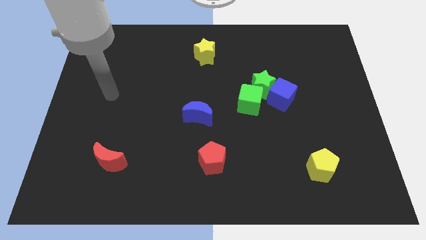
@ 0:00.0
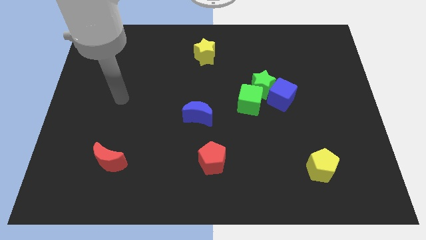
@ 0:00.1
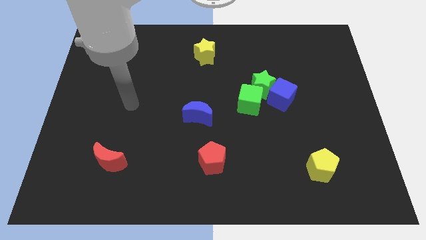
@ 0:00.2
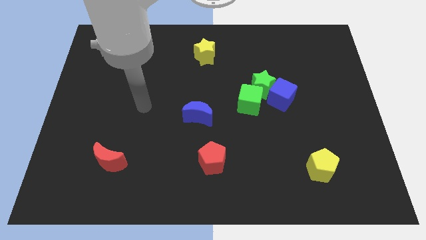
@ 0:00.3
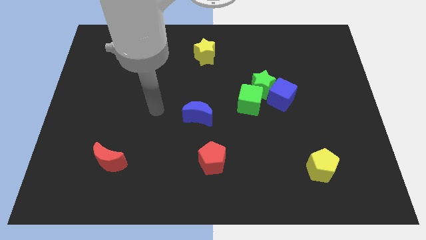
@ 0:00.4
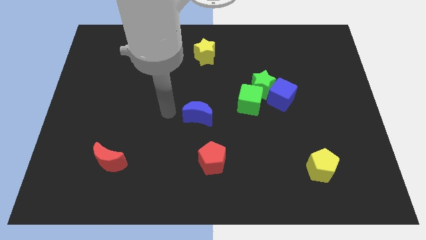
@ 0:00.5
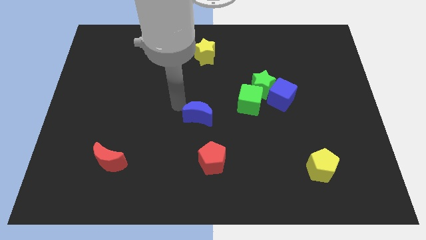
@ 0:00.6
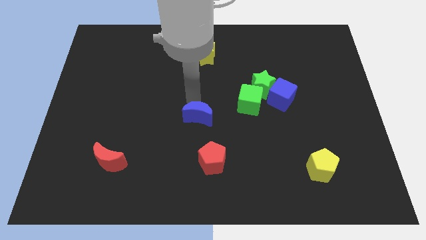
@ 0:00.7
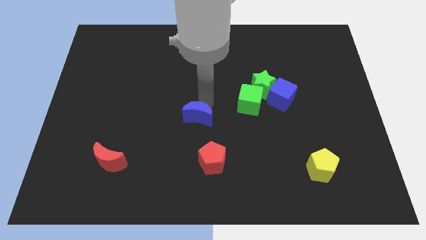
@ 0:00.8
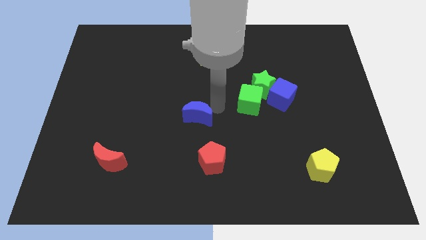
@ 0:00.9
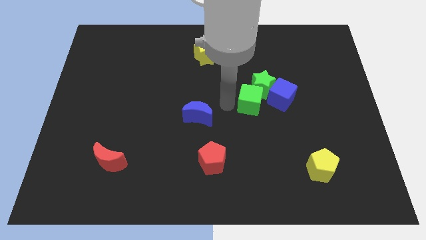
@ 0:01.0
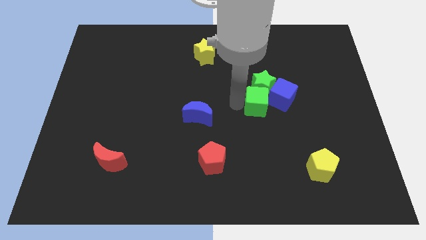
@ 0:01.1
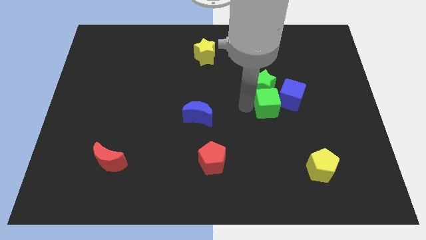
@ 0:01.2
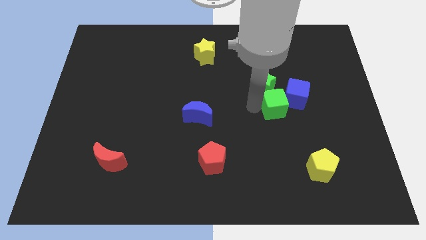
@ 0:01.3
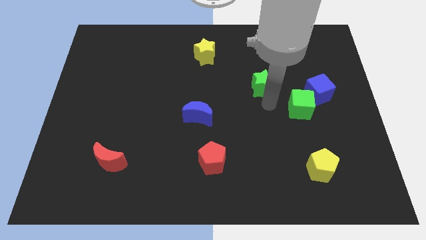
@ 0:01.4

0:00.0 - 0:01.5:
separate the green star from the blue cube and green cube

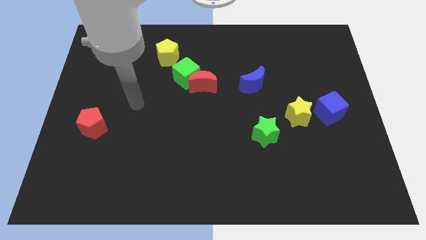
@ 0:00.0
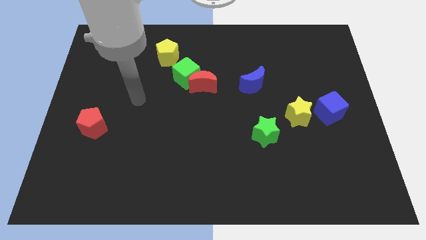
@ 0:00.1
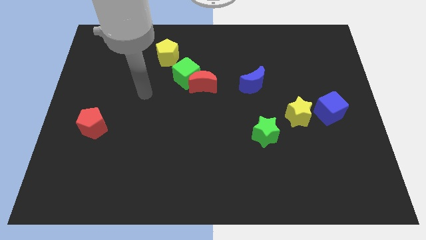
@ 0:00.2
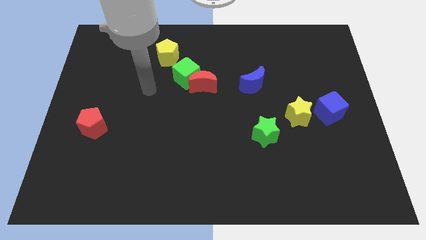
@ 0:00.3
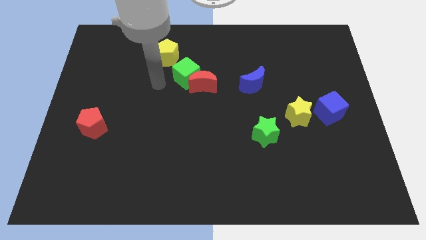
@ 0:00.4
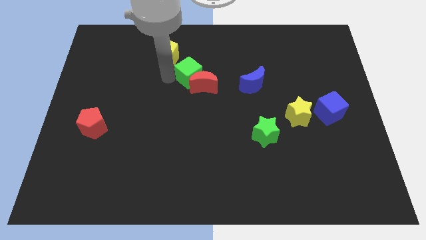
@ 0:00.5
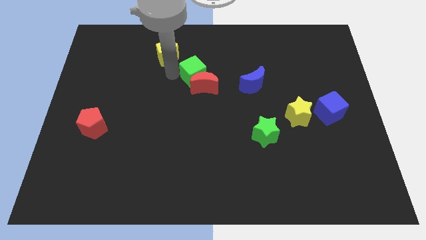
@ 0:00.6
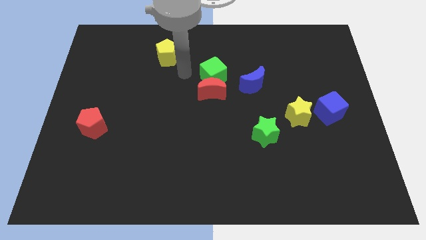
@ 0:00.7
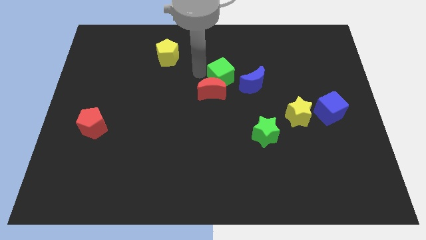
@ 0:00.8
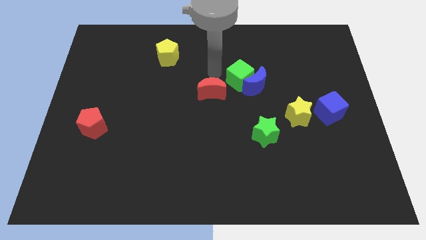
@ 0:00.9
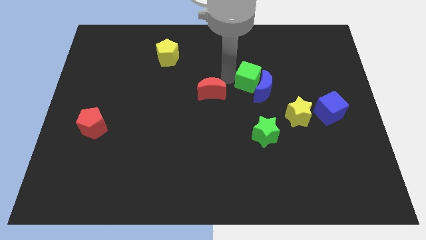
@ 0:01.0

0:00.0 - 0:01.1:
move the red moon away from the green cube

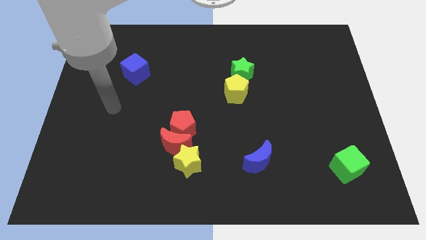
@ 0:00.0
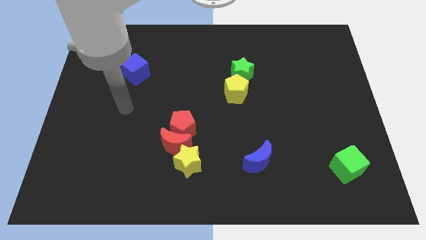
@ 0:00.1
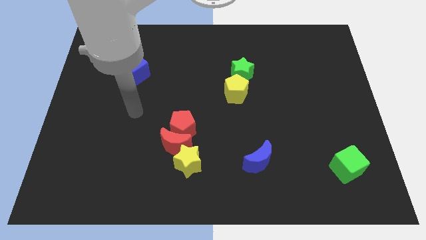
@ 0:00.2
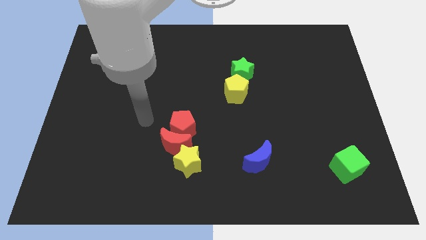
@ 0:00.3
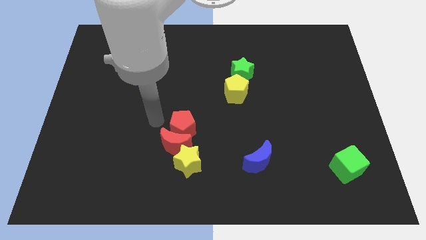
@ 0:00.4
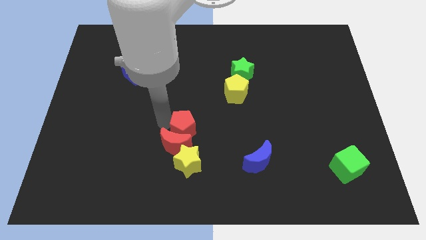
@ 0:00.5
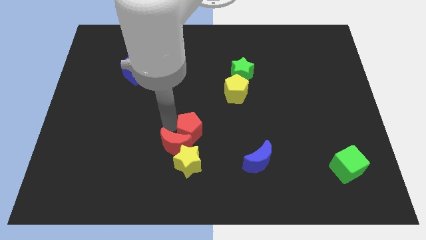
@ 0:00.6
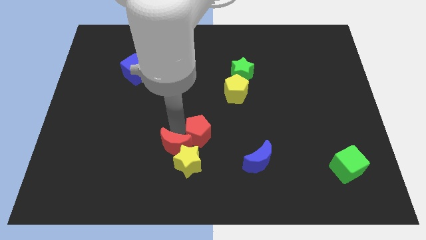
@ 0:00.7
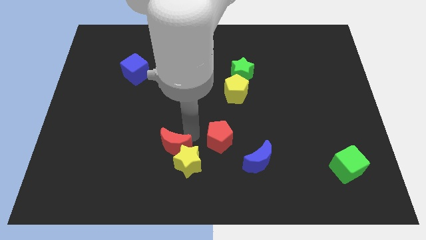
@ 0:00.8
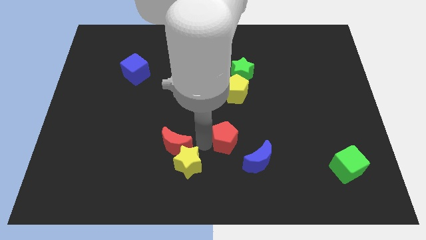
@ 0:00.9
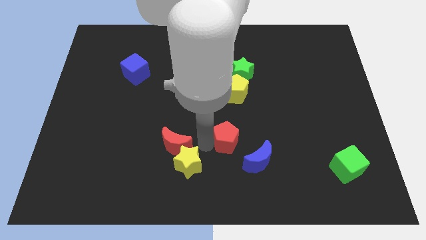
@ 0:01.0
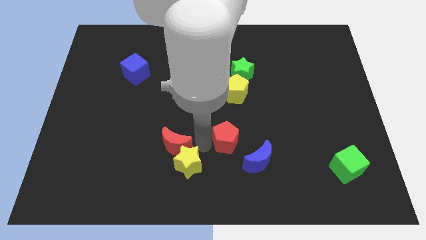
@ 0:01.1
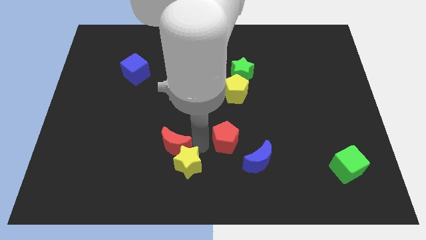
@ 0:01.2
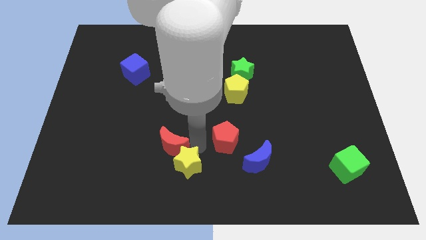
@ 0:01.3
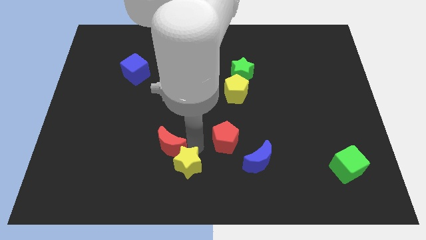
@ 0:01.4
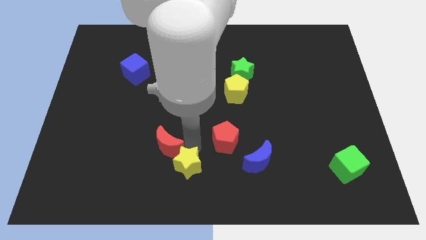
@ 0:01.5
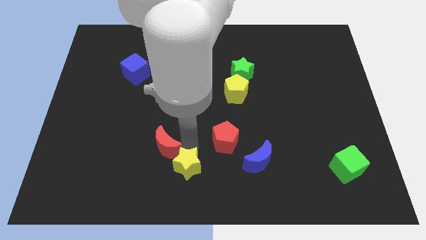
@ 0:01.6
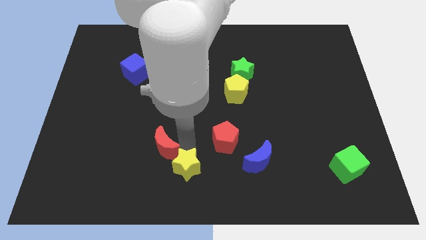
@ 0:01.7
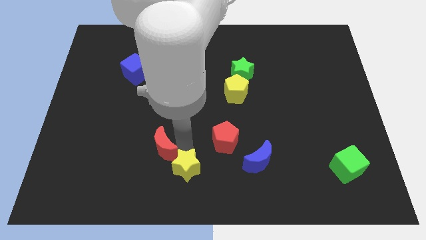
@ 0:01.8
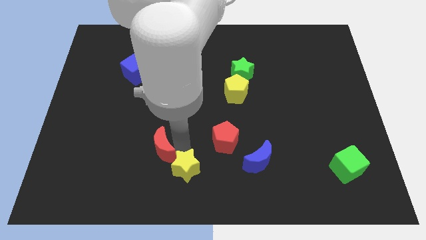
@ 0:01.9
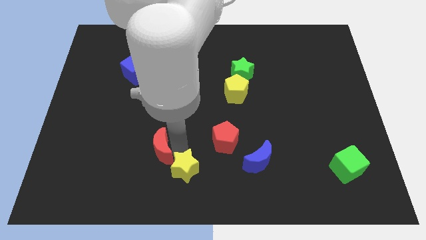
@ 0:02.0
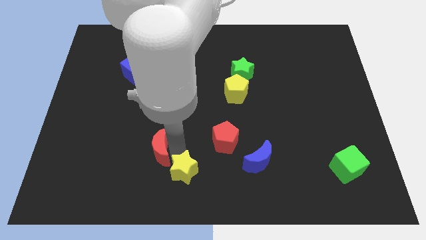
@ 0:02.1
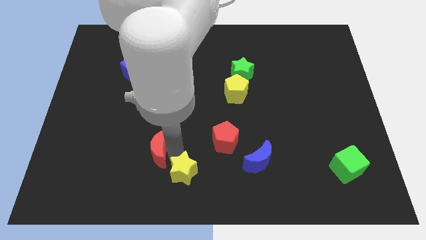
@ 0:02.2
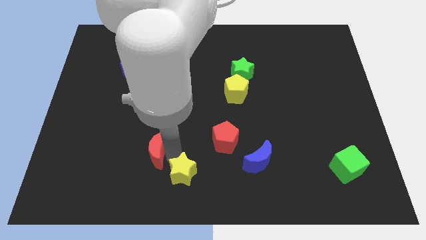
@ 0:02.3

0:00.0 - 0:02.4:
move the red moon away from the red pentagon and yellow star

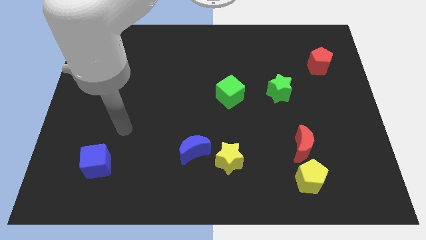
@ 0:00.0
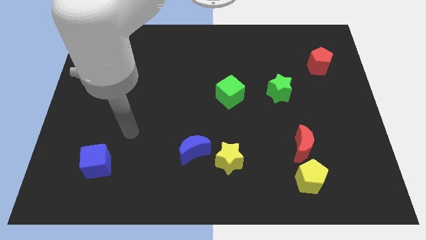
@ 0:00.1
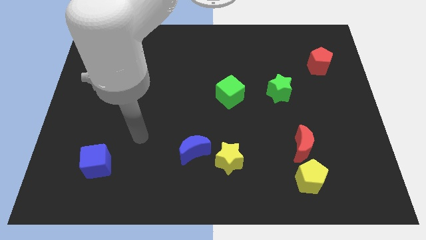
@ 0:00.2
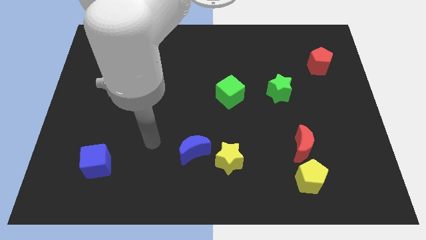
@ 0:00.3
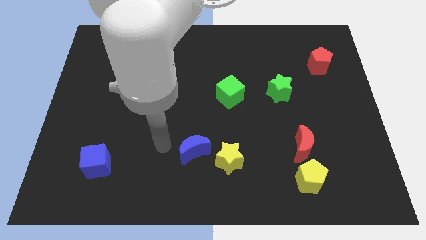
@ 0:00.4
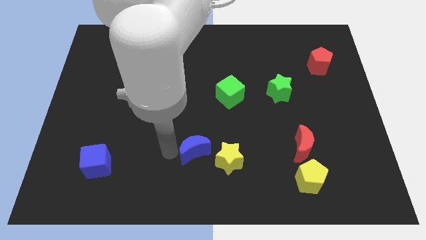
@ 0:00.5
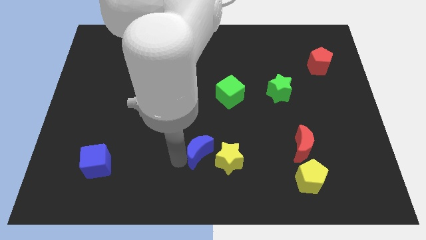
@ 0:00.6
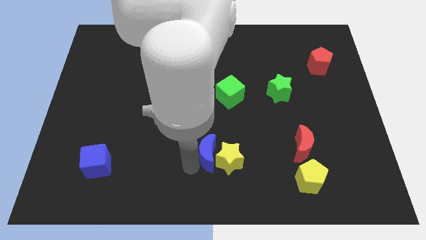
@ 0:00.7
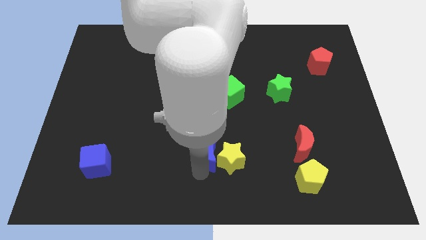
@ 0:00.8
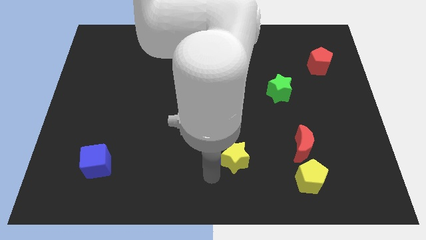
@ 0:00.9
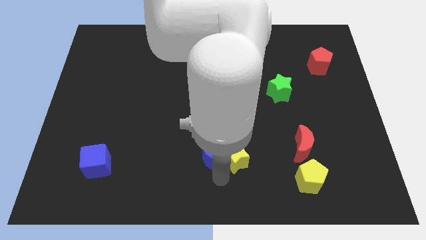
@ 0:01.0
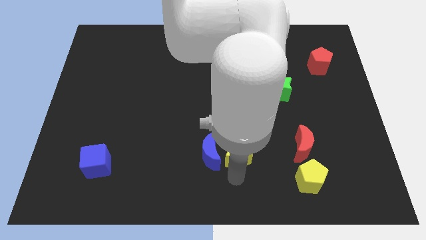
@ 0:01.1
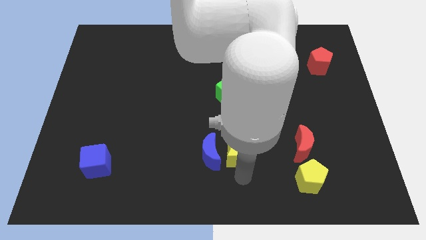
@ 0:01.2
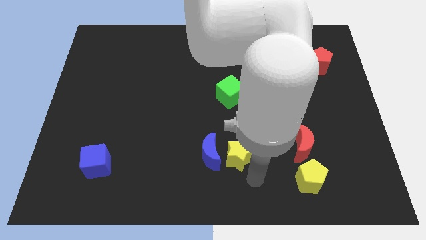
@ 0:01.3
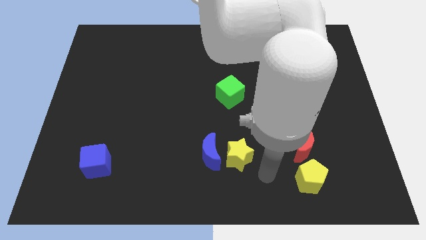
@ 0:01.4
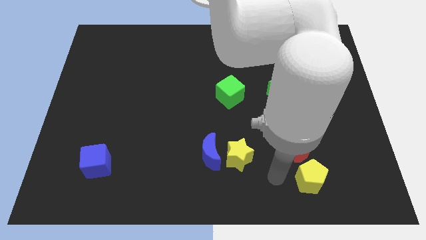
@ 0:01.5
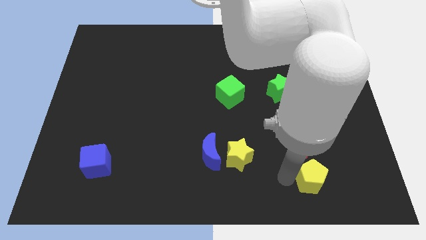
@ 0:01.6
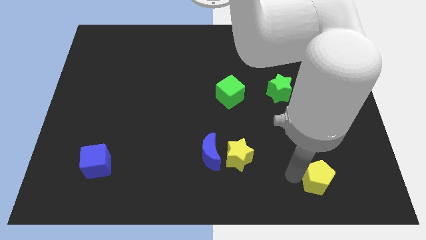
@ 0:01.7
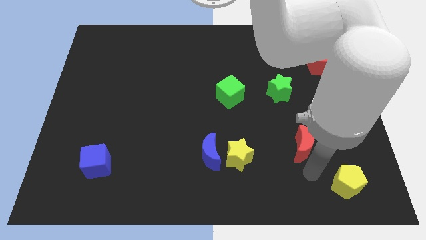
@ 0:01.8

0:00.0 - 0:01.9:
move the red moon away from the yellow pentagon

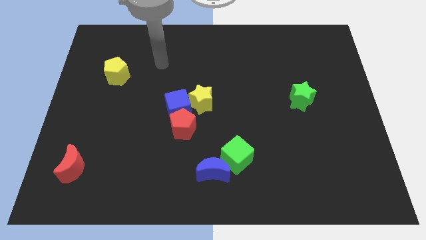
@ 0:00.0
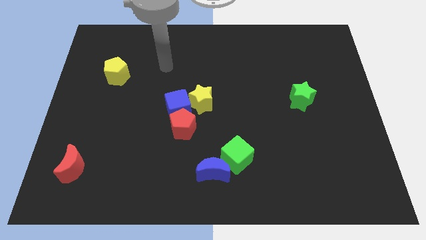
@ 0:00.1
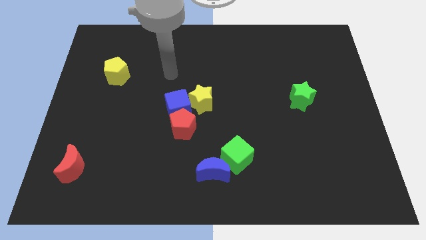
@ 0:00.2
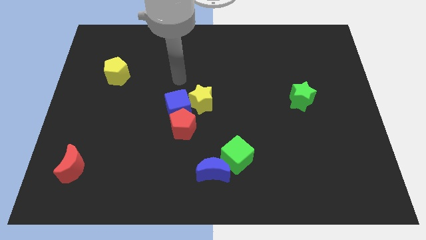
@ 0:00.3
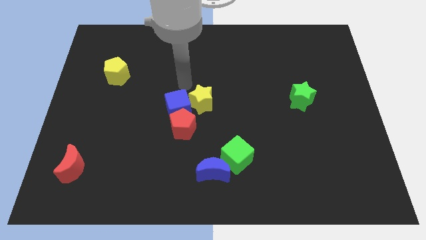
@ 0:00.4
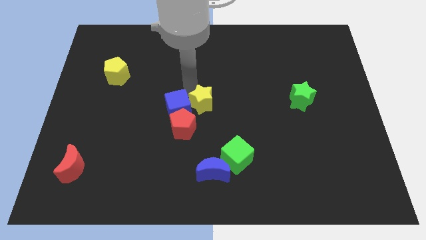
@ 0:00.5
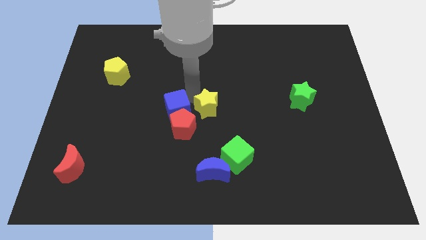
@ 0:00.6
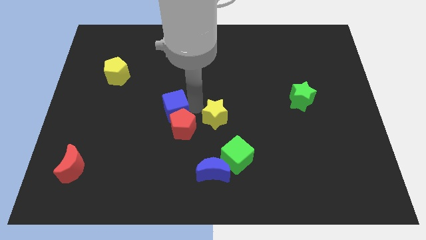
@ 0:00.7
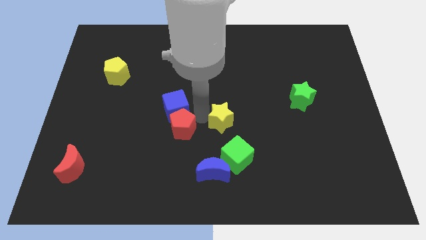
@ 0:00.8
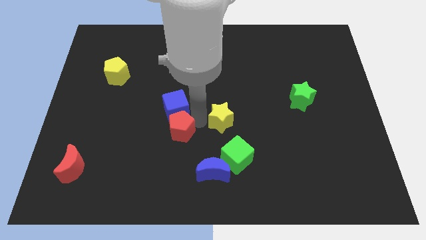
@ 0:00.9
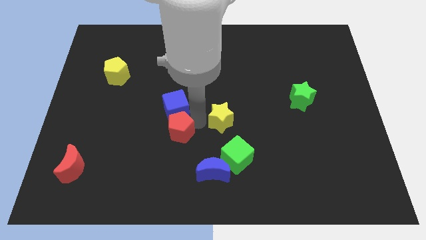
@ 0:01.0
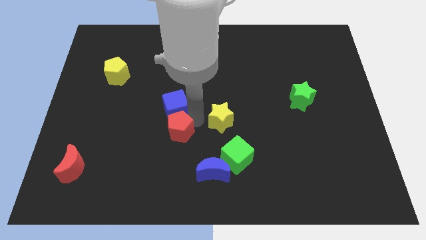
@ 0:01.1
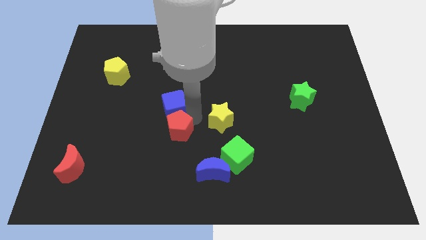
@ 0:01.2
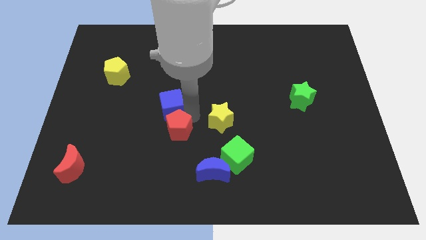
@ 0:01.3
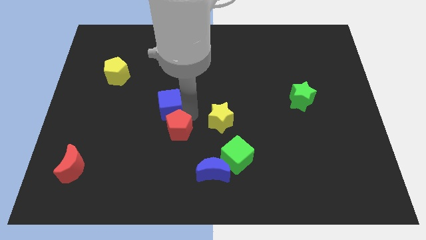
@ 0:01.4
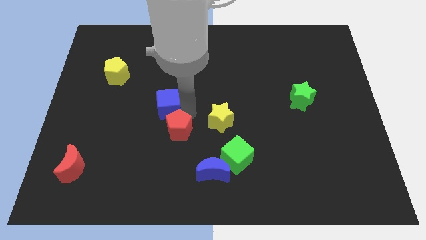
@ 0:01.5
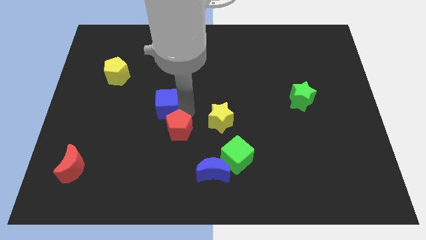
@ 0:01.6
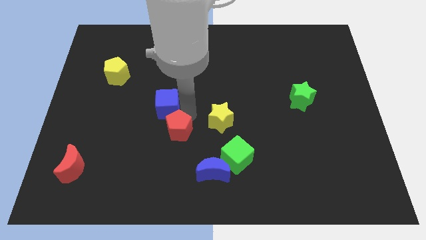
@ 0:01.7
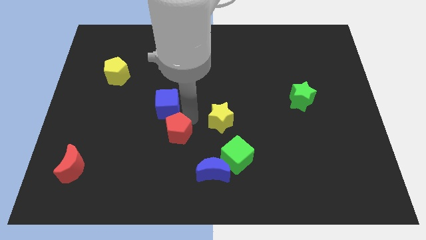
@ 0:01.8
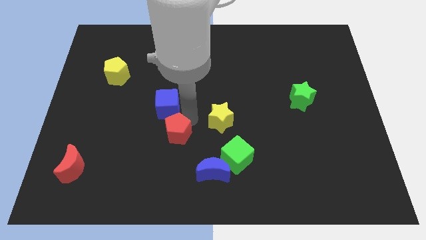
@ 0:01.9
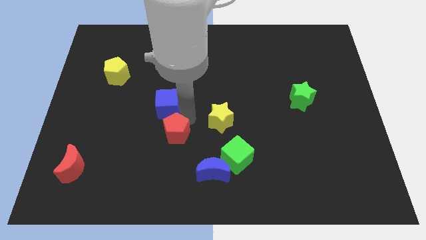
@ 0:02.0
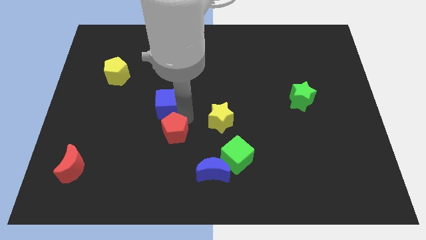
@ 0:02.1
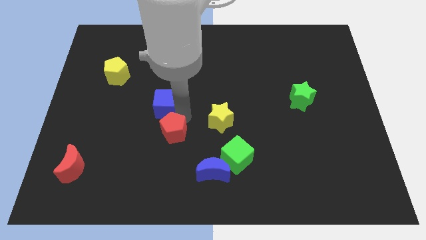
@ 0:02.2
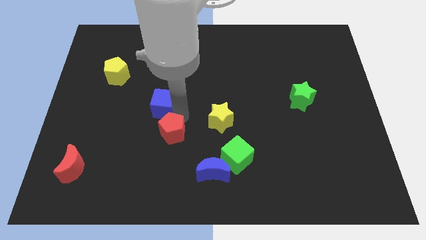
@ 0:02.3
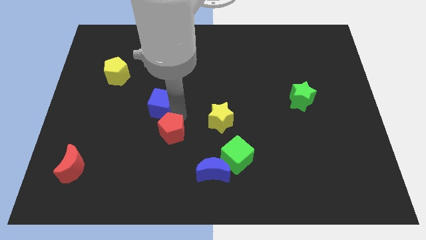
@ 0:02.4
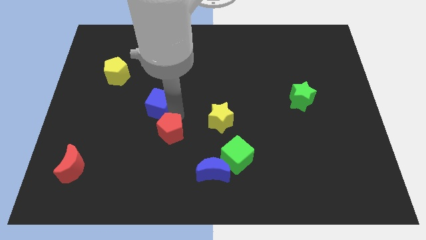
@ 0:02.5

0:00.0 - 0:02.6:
separate the blue cube from the red pentagon and yellow star
